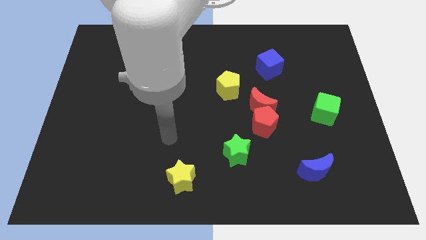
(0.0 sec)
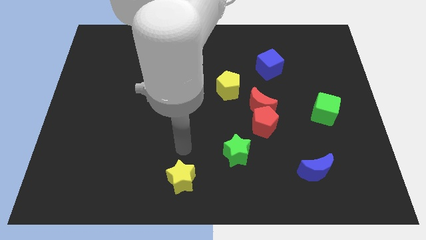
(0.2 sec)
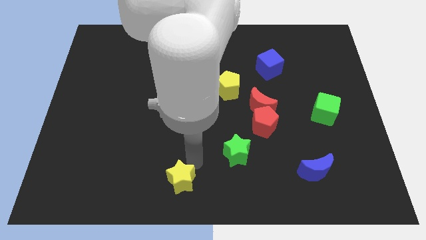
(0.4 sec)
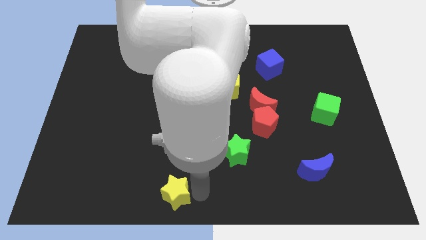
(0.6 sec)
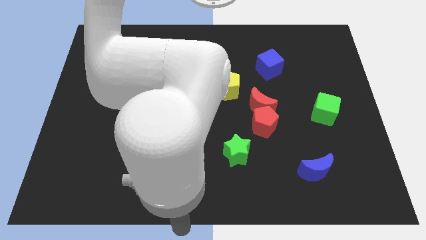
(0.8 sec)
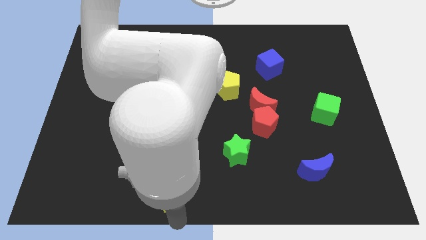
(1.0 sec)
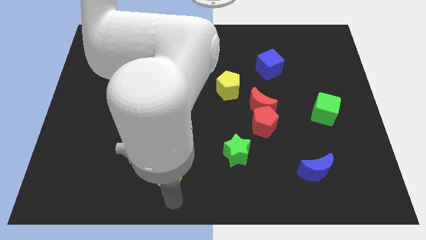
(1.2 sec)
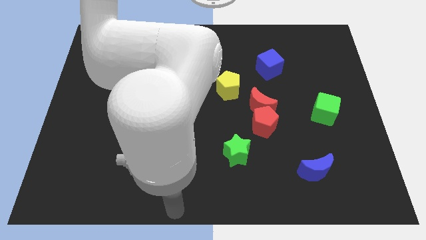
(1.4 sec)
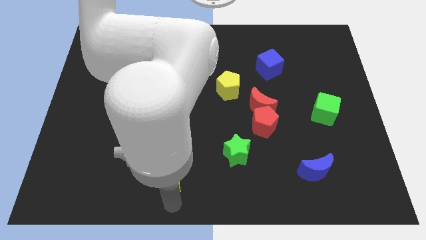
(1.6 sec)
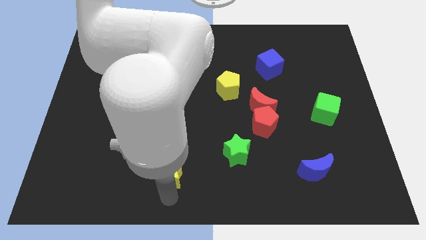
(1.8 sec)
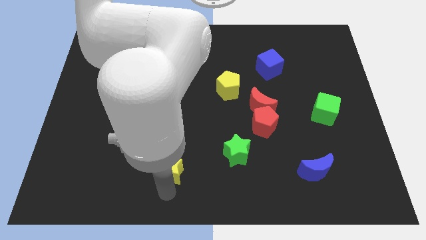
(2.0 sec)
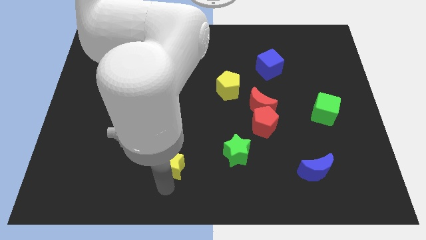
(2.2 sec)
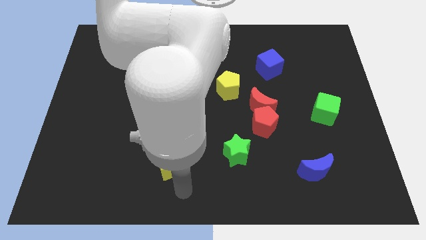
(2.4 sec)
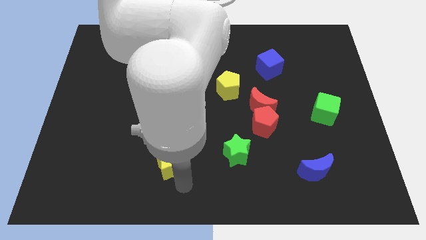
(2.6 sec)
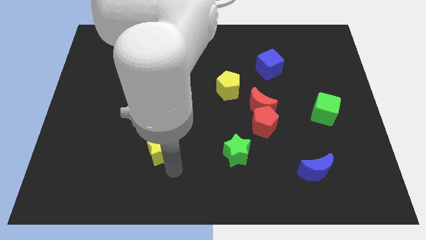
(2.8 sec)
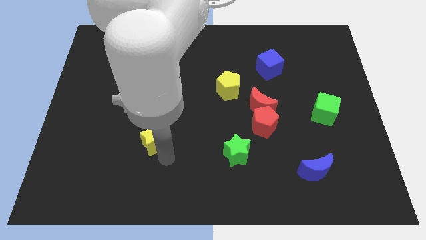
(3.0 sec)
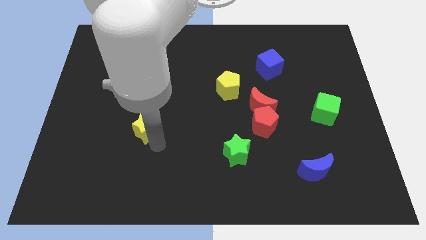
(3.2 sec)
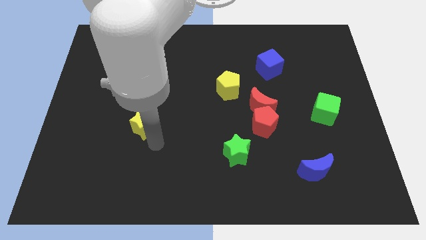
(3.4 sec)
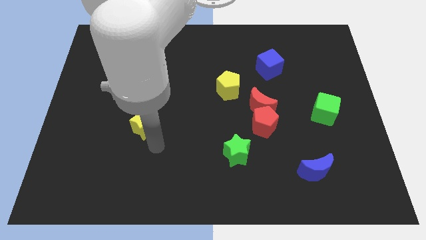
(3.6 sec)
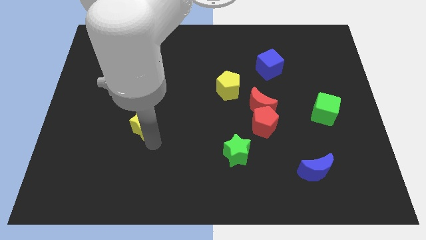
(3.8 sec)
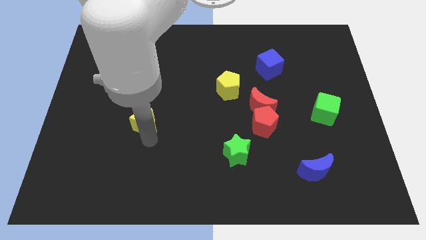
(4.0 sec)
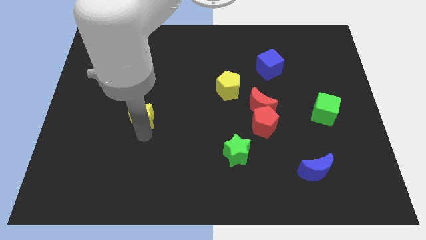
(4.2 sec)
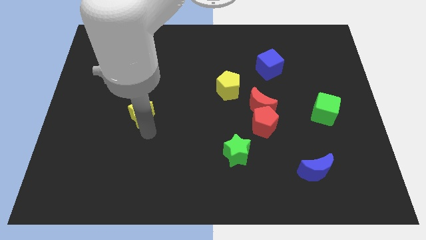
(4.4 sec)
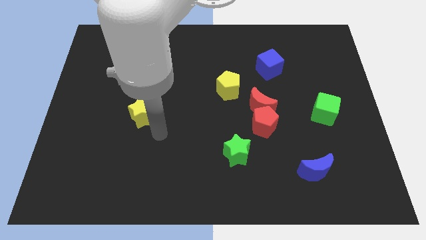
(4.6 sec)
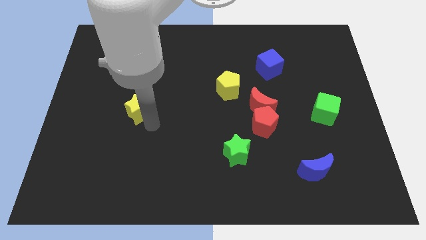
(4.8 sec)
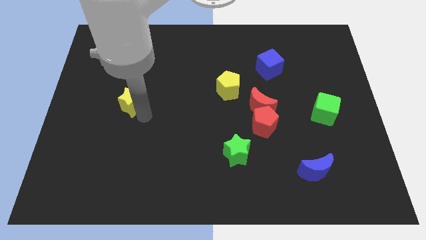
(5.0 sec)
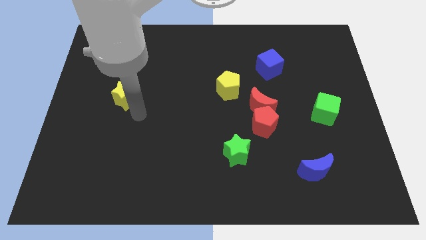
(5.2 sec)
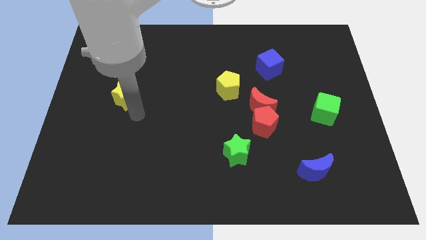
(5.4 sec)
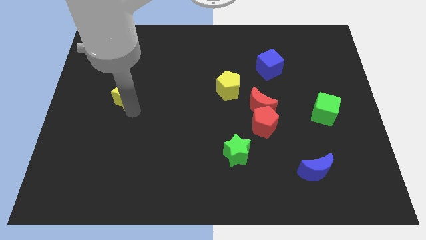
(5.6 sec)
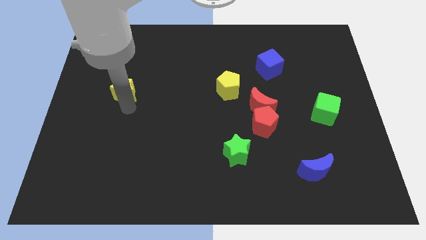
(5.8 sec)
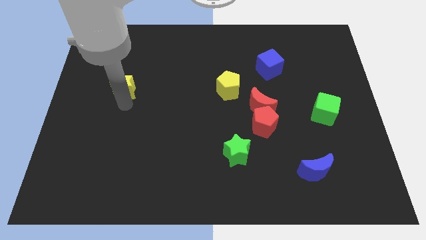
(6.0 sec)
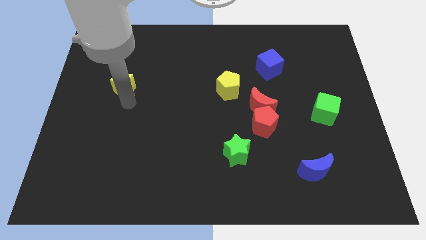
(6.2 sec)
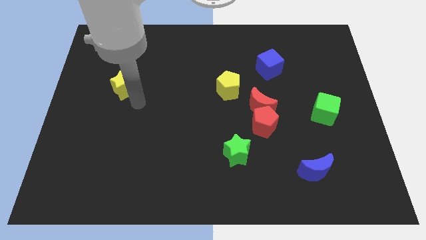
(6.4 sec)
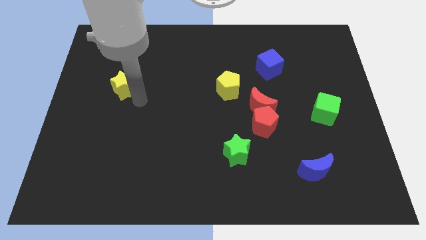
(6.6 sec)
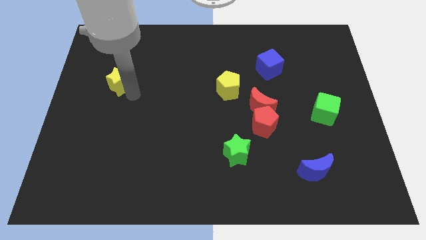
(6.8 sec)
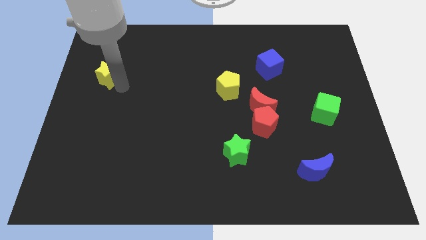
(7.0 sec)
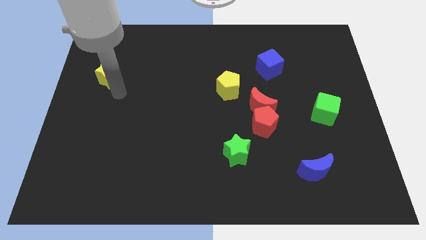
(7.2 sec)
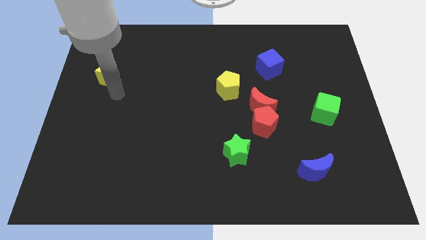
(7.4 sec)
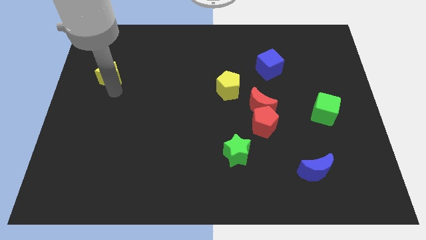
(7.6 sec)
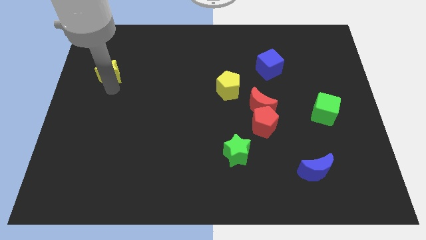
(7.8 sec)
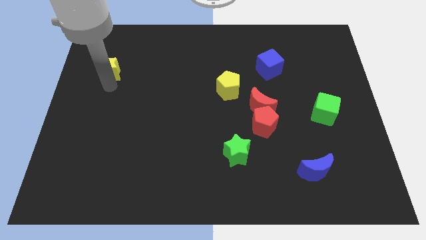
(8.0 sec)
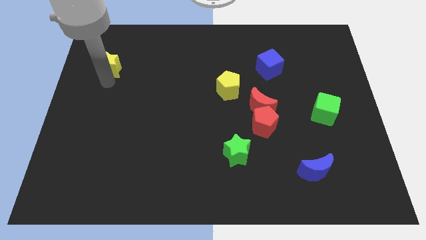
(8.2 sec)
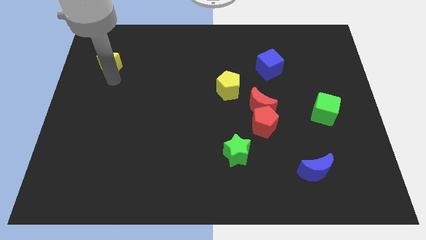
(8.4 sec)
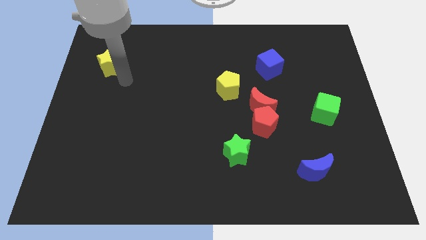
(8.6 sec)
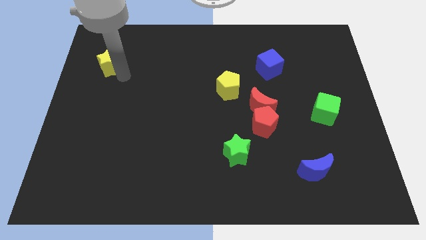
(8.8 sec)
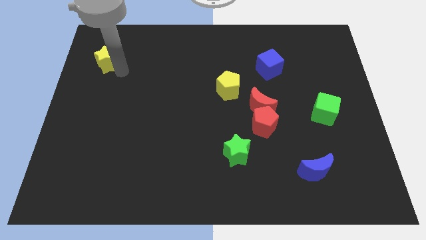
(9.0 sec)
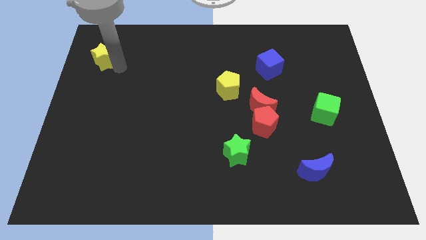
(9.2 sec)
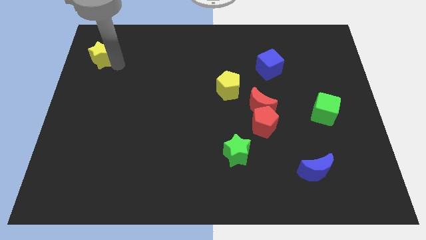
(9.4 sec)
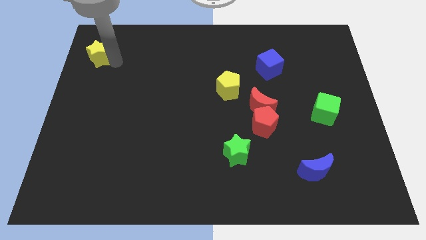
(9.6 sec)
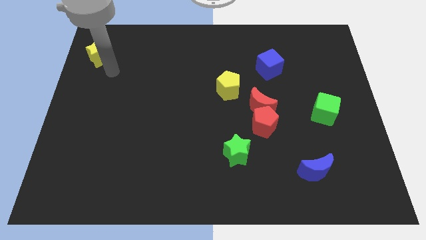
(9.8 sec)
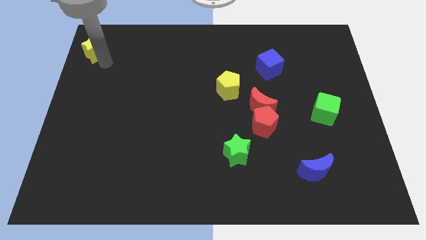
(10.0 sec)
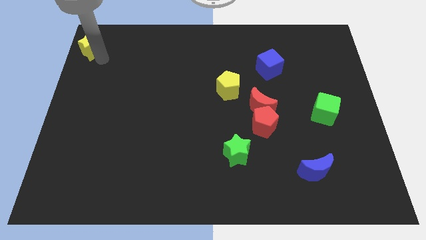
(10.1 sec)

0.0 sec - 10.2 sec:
slide the yellow star to the top left of the board

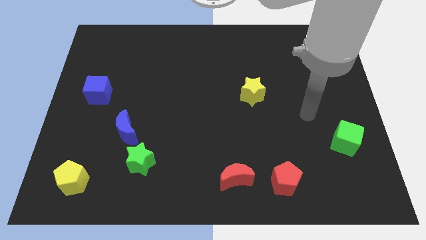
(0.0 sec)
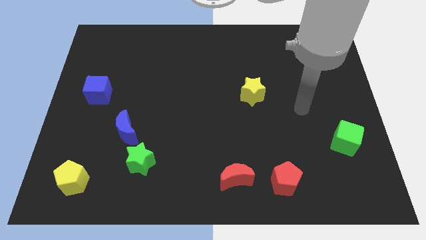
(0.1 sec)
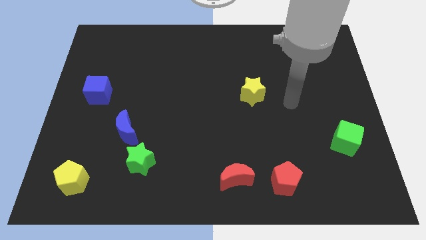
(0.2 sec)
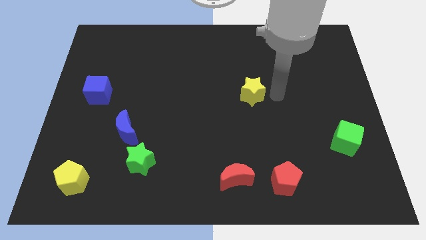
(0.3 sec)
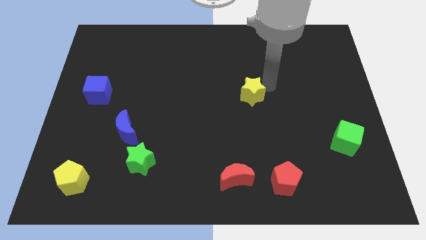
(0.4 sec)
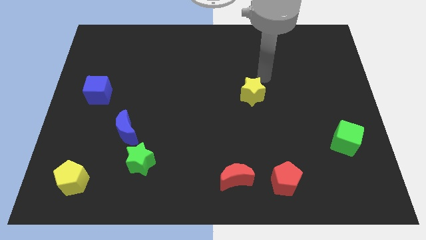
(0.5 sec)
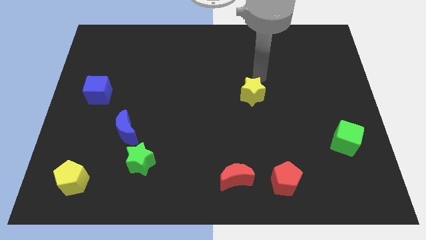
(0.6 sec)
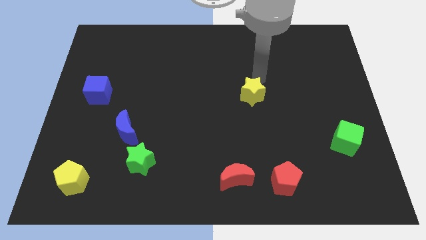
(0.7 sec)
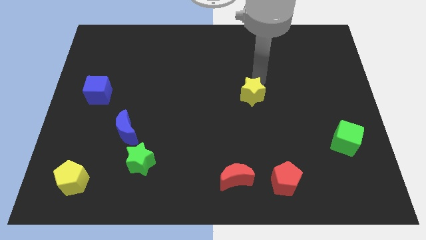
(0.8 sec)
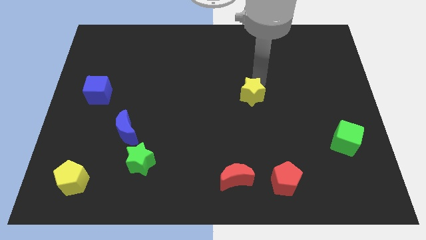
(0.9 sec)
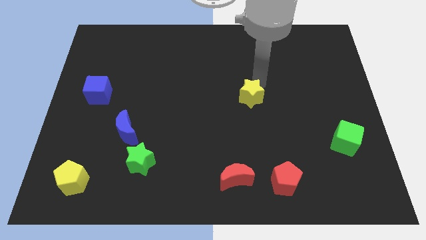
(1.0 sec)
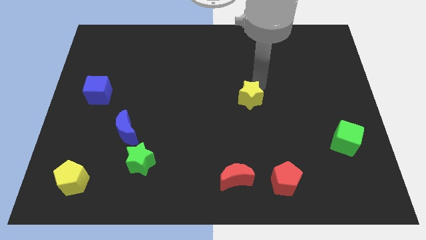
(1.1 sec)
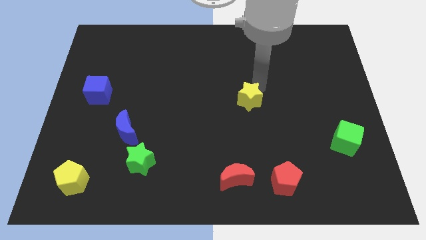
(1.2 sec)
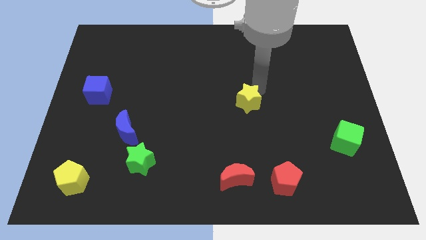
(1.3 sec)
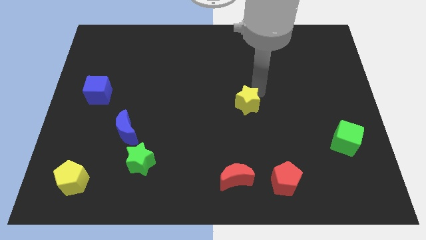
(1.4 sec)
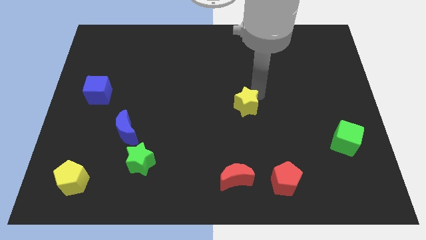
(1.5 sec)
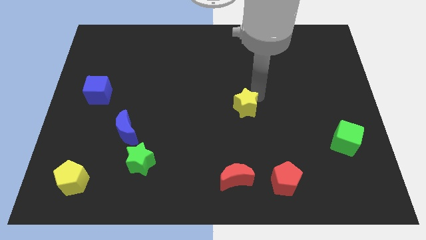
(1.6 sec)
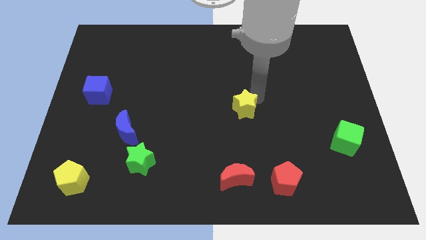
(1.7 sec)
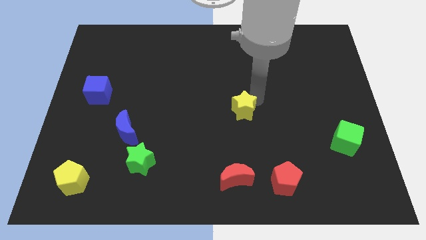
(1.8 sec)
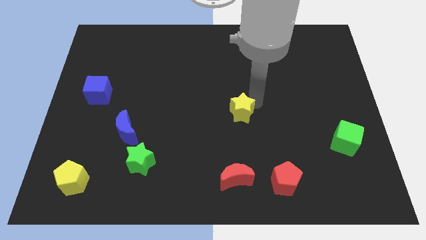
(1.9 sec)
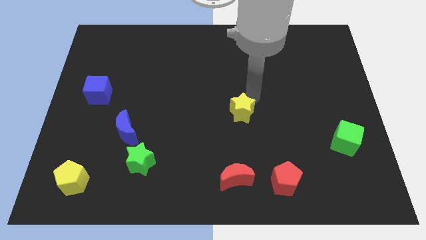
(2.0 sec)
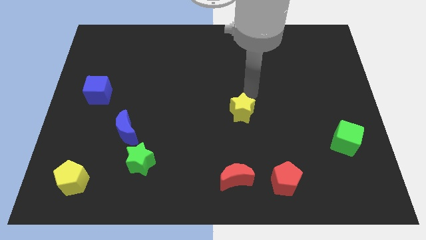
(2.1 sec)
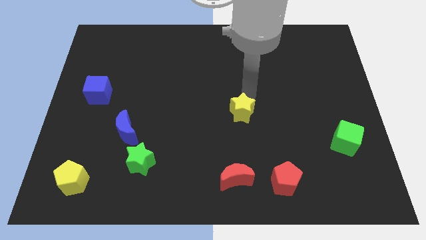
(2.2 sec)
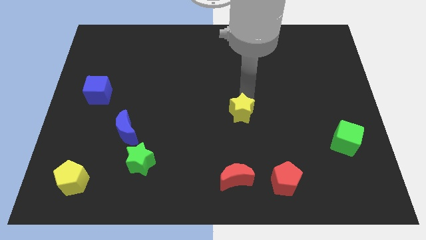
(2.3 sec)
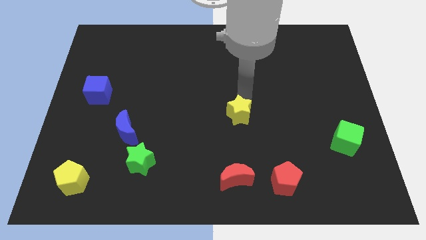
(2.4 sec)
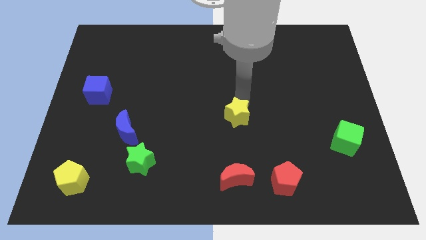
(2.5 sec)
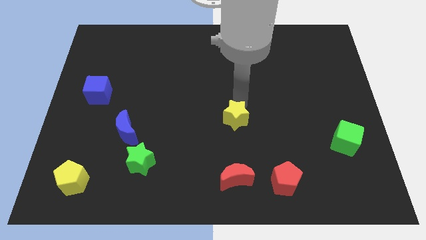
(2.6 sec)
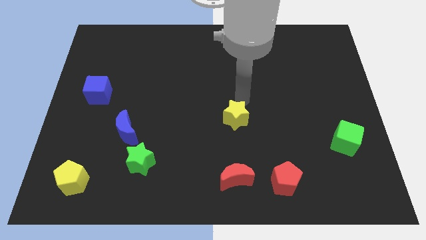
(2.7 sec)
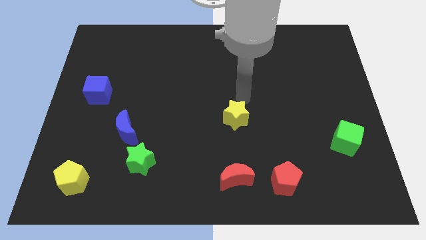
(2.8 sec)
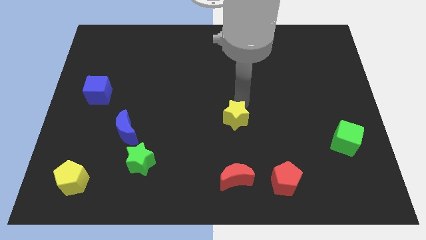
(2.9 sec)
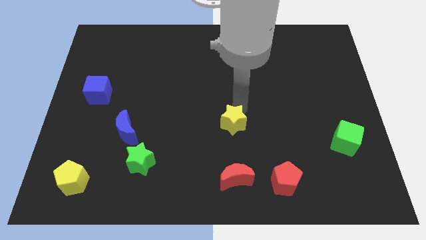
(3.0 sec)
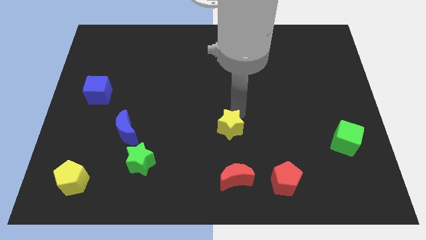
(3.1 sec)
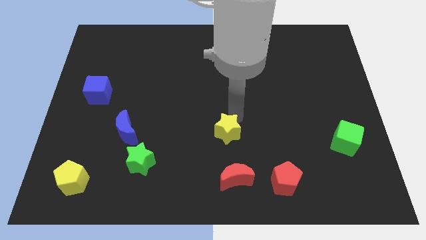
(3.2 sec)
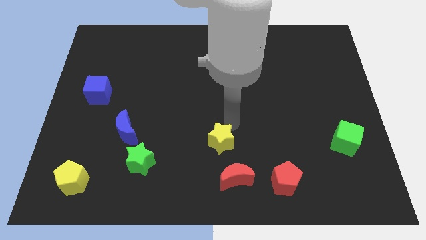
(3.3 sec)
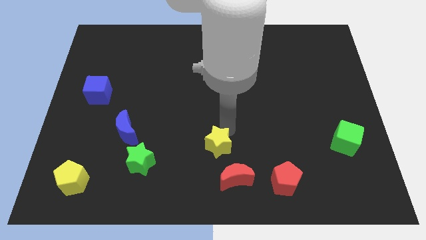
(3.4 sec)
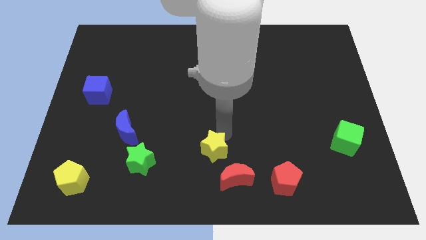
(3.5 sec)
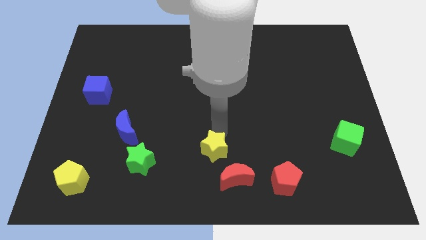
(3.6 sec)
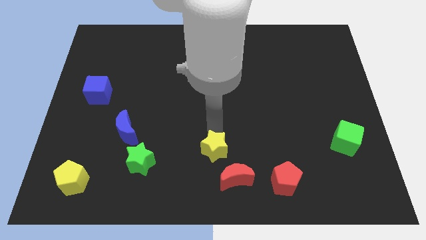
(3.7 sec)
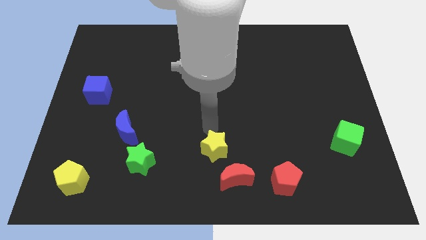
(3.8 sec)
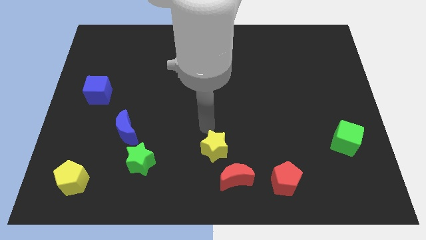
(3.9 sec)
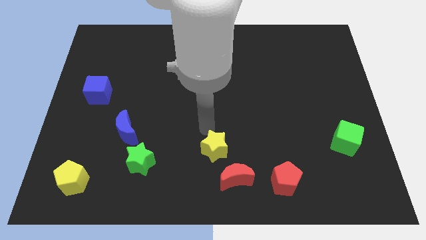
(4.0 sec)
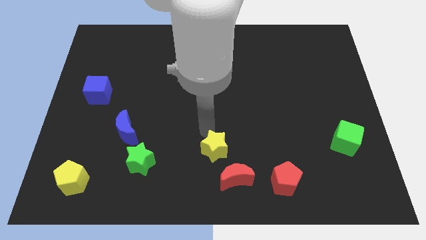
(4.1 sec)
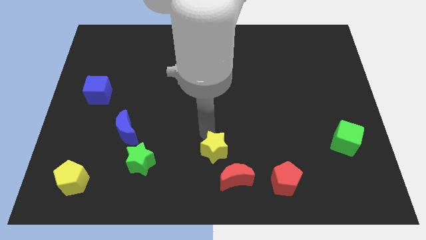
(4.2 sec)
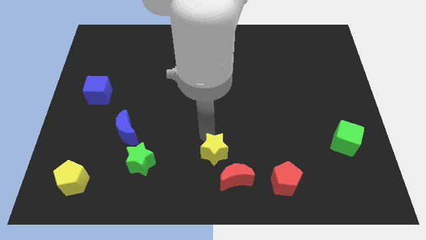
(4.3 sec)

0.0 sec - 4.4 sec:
move the yellow star to the bottom
